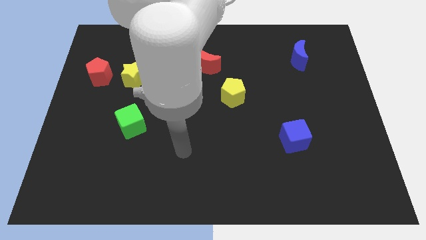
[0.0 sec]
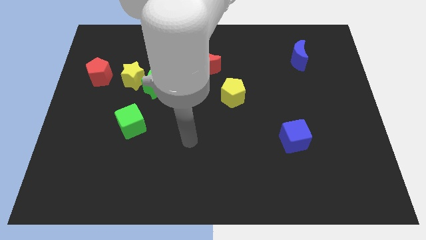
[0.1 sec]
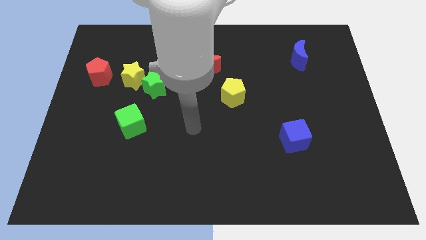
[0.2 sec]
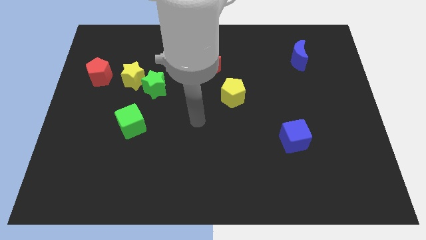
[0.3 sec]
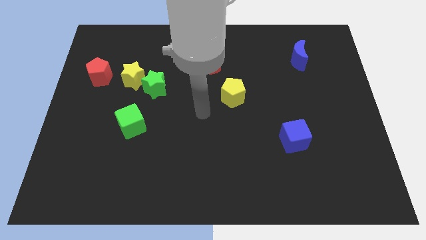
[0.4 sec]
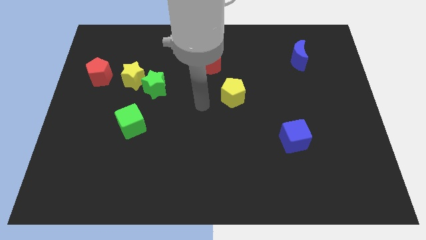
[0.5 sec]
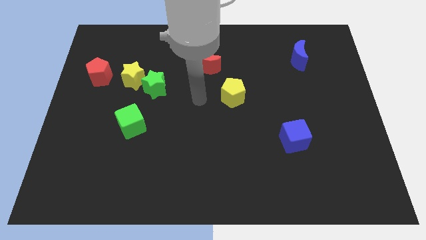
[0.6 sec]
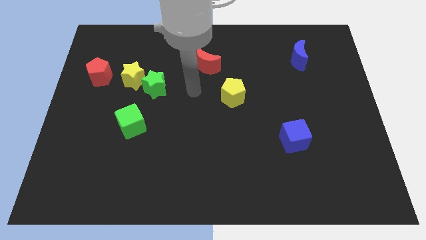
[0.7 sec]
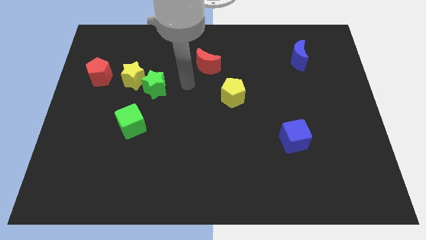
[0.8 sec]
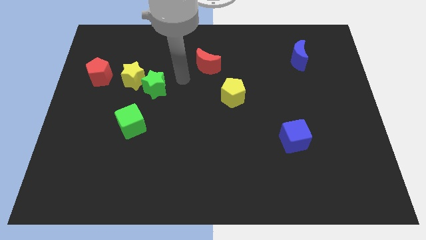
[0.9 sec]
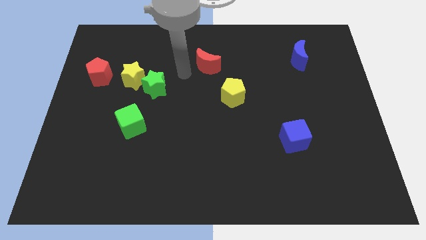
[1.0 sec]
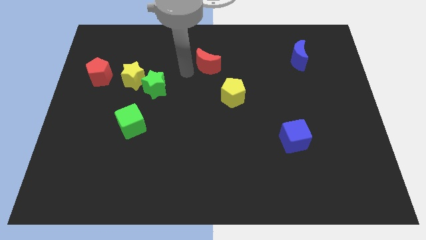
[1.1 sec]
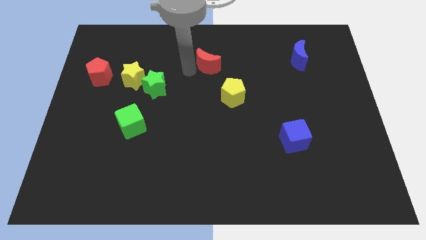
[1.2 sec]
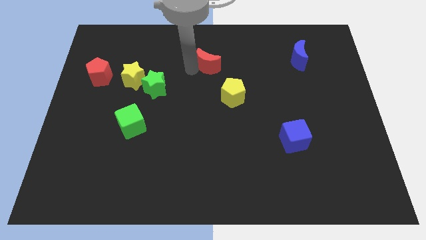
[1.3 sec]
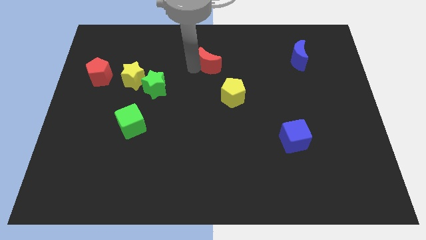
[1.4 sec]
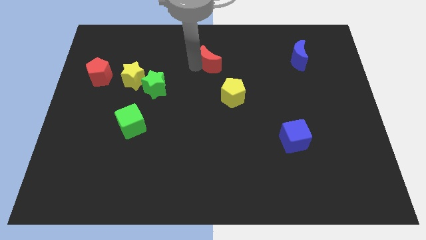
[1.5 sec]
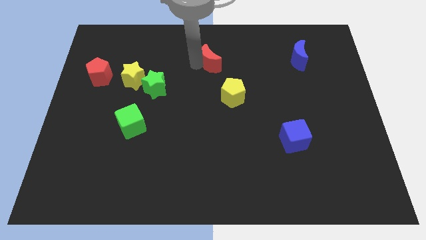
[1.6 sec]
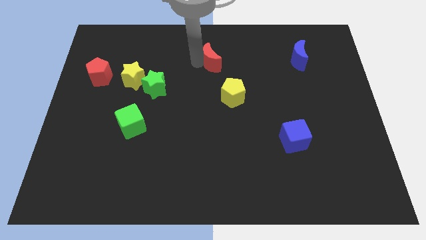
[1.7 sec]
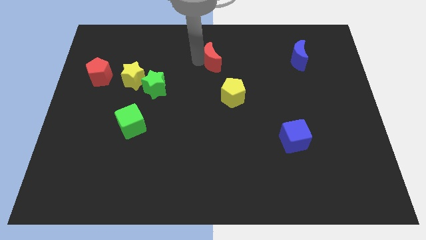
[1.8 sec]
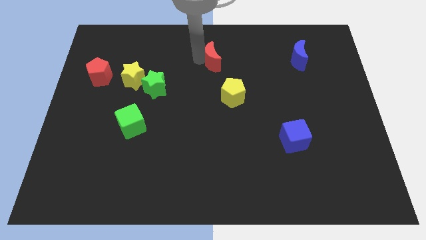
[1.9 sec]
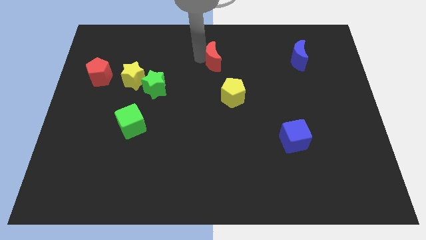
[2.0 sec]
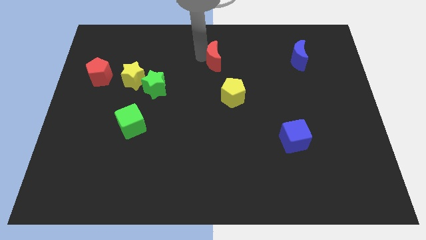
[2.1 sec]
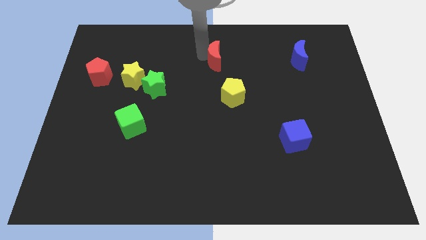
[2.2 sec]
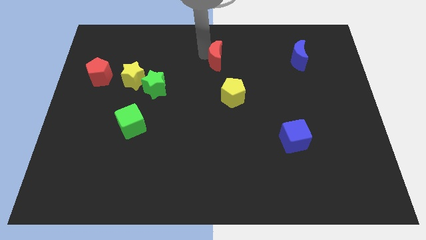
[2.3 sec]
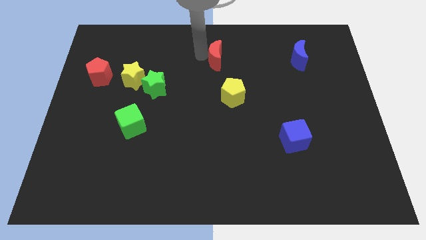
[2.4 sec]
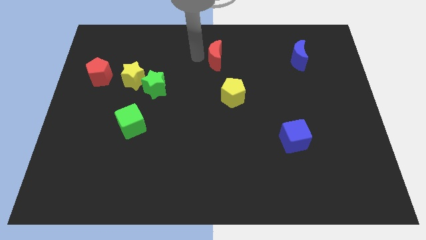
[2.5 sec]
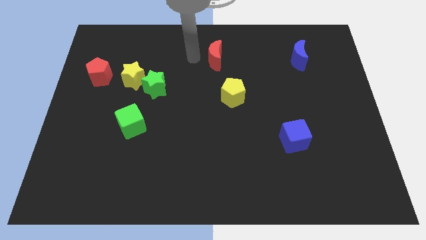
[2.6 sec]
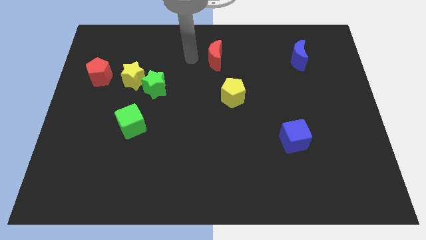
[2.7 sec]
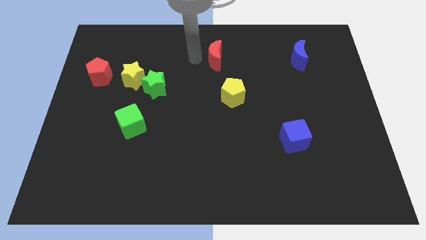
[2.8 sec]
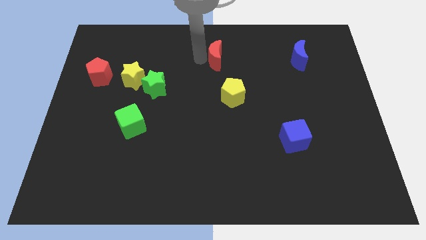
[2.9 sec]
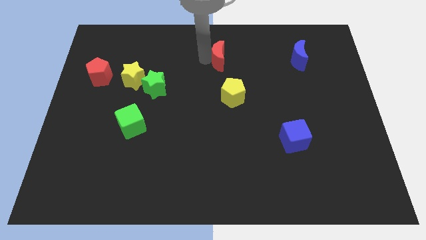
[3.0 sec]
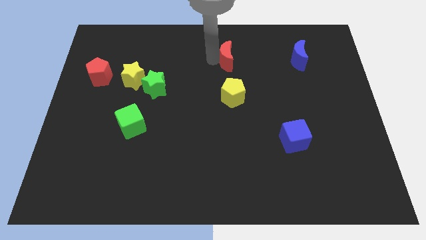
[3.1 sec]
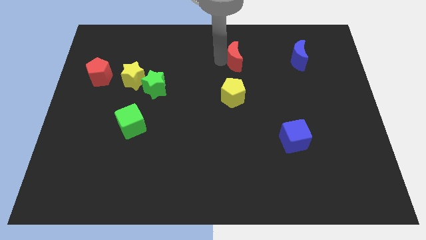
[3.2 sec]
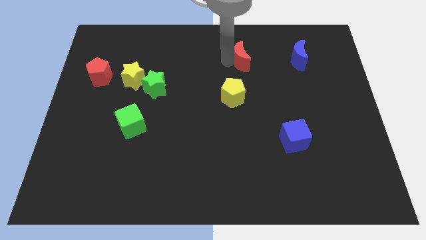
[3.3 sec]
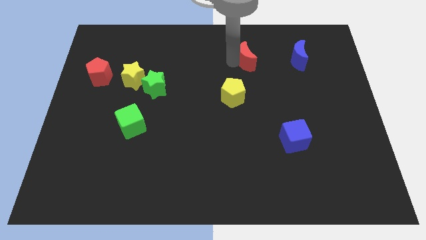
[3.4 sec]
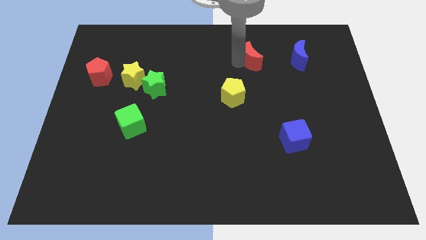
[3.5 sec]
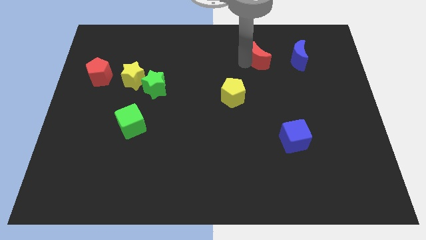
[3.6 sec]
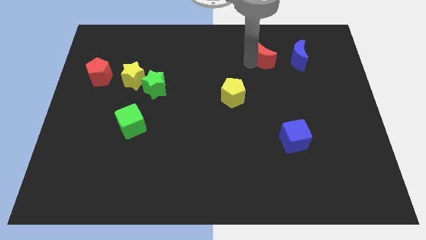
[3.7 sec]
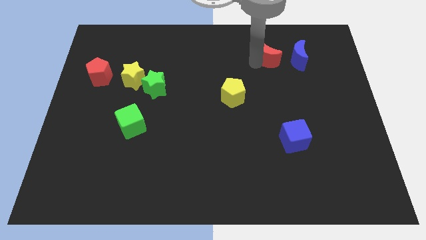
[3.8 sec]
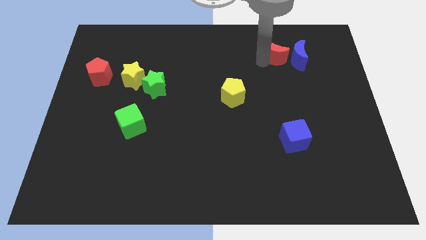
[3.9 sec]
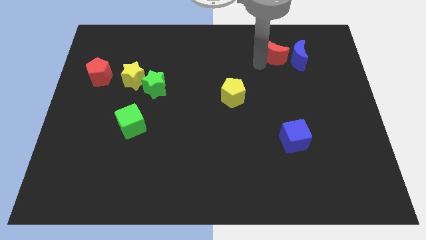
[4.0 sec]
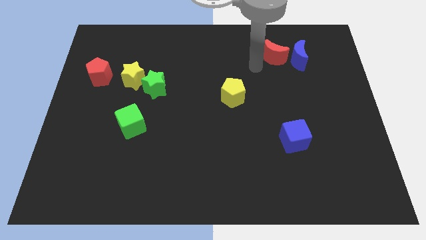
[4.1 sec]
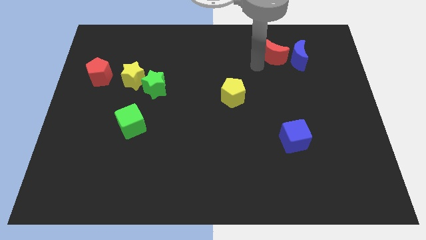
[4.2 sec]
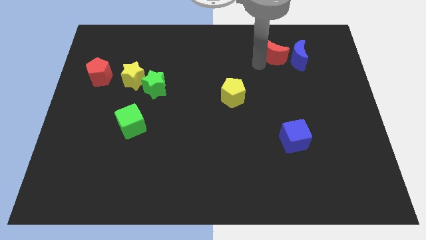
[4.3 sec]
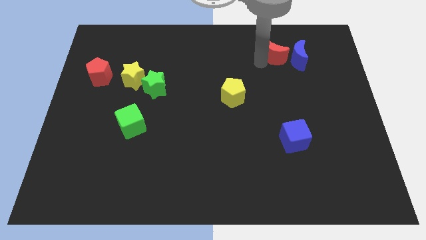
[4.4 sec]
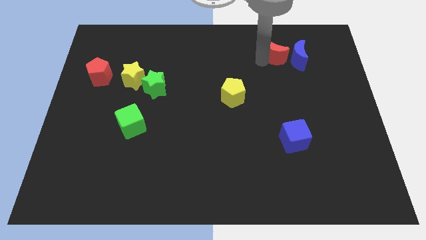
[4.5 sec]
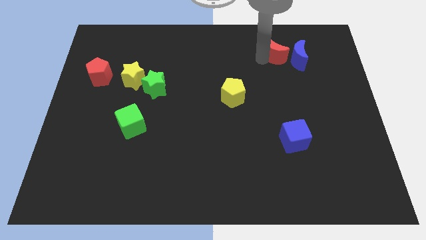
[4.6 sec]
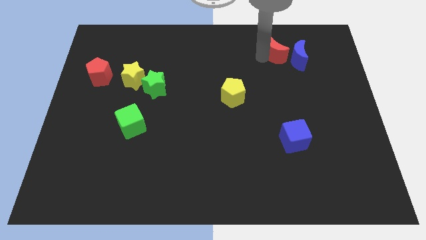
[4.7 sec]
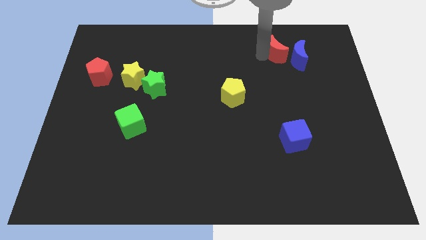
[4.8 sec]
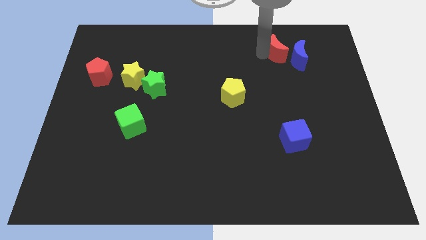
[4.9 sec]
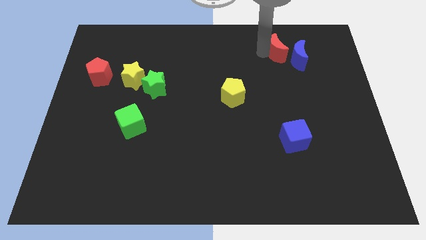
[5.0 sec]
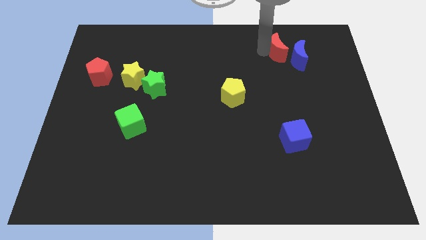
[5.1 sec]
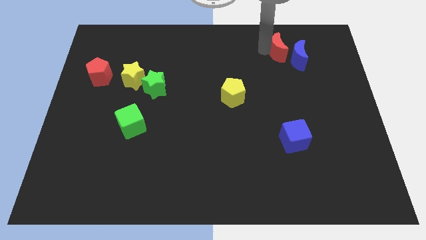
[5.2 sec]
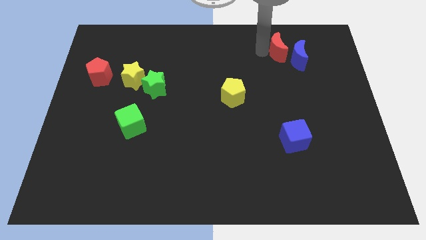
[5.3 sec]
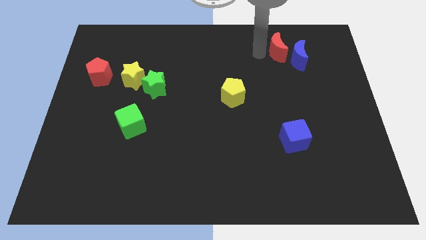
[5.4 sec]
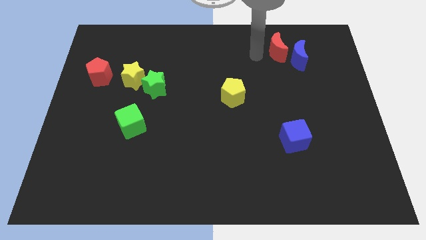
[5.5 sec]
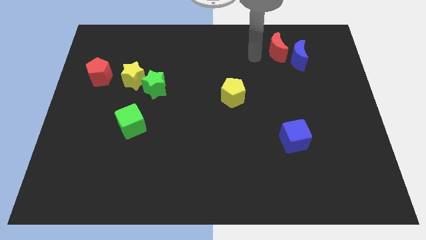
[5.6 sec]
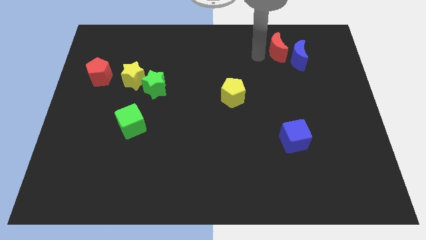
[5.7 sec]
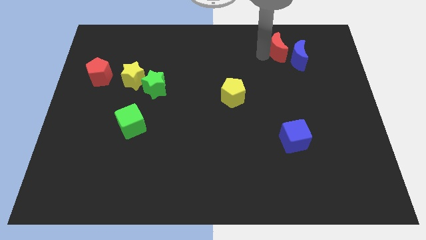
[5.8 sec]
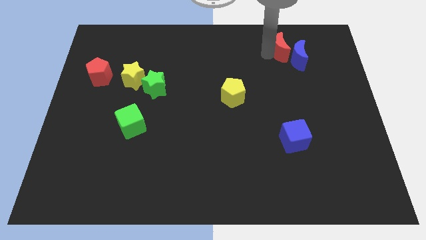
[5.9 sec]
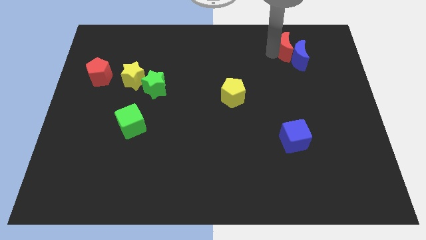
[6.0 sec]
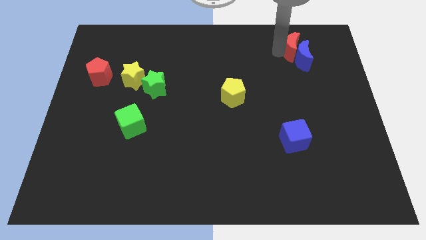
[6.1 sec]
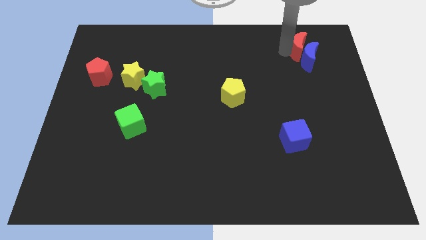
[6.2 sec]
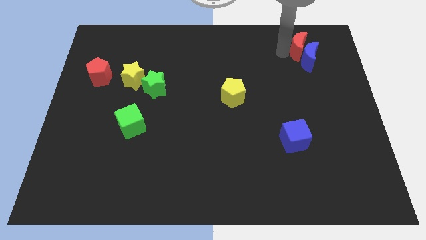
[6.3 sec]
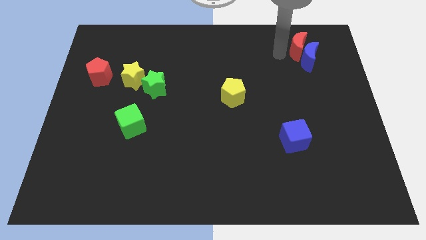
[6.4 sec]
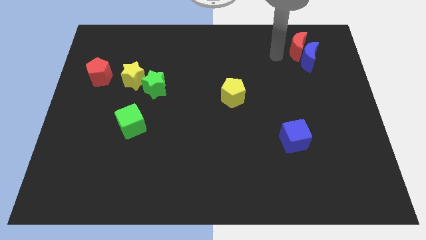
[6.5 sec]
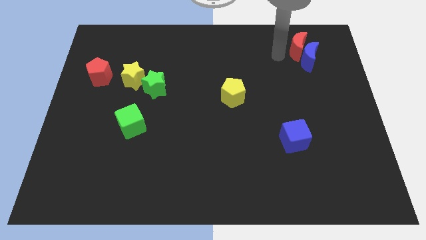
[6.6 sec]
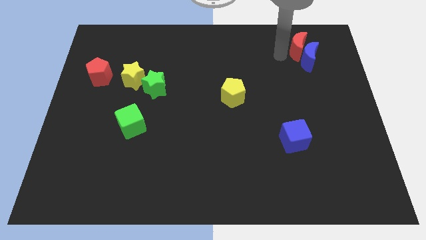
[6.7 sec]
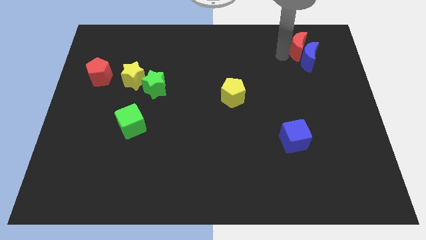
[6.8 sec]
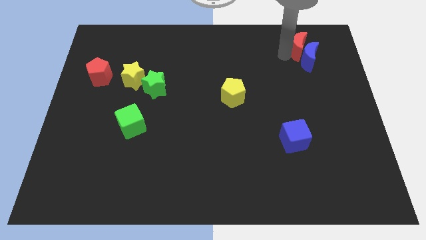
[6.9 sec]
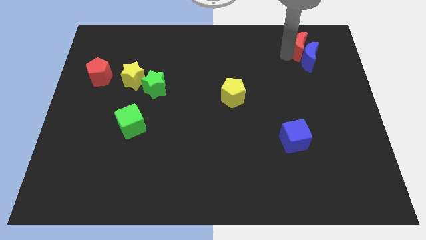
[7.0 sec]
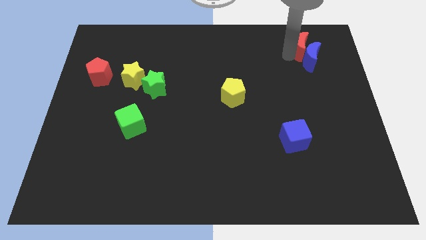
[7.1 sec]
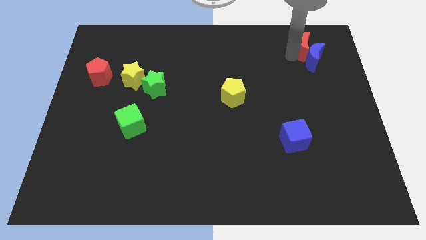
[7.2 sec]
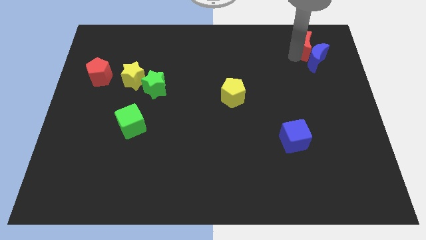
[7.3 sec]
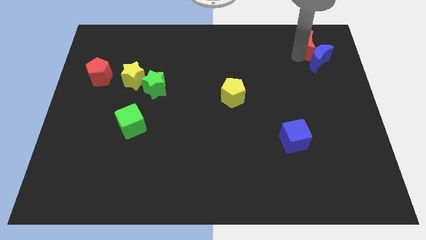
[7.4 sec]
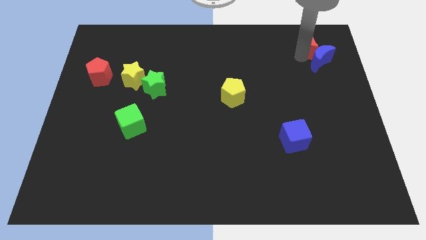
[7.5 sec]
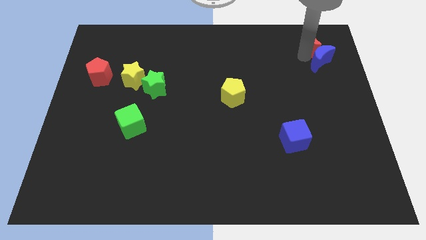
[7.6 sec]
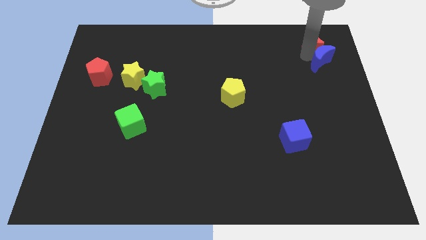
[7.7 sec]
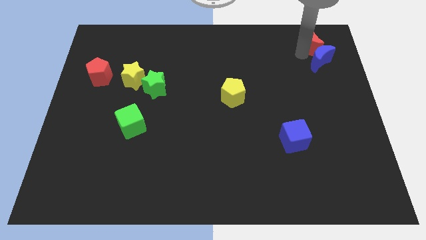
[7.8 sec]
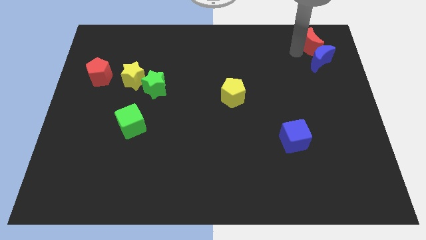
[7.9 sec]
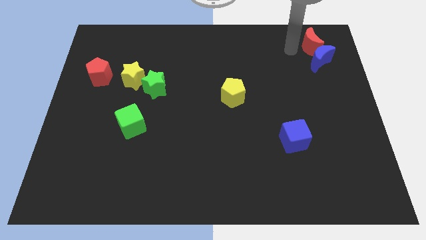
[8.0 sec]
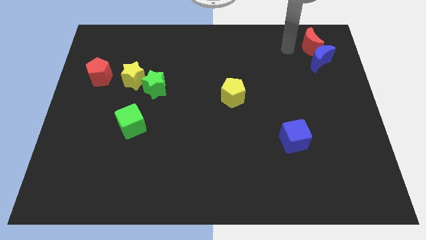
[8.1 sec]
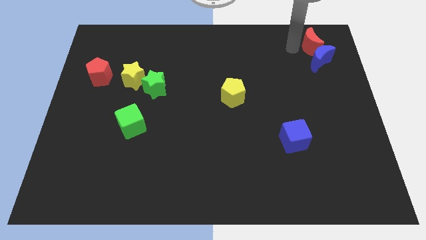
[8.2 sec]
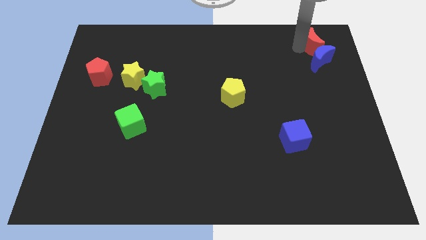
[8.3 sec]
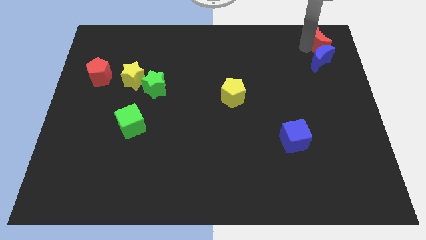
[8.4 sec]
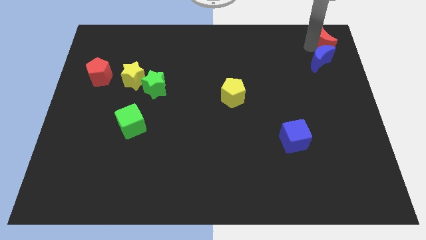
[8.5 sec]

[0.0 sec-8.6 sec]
push the red moon to the upper right corner
